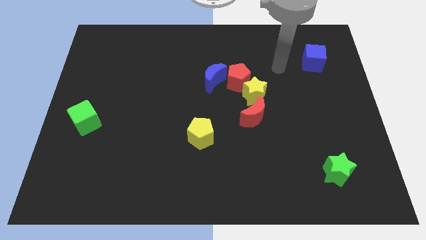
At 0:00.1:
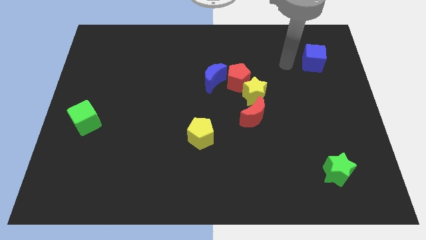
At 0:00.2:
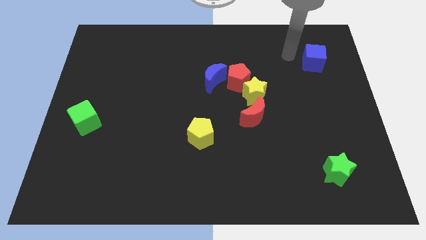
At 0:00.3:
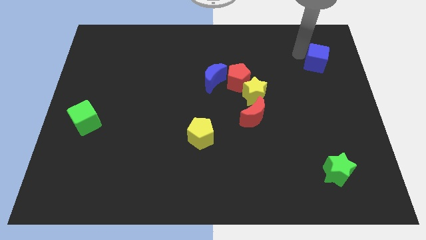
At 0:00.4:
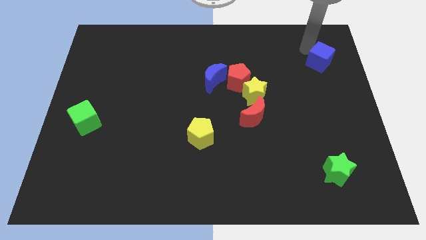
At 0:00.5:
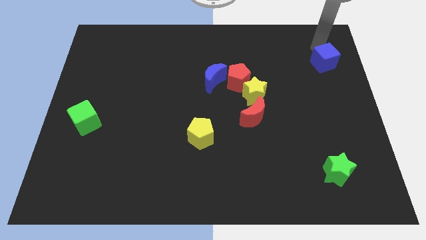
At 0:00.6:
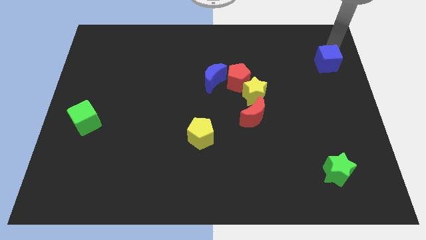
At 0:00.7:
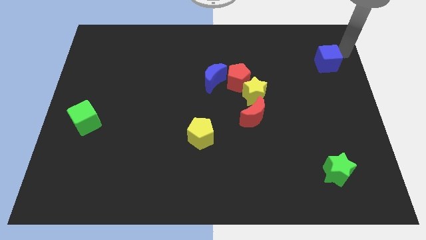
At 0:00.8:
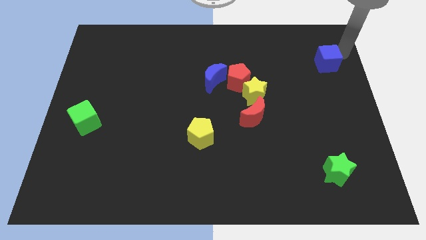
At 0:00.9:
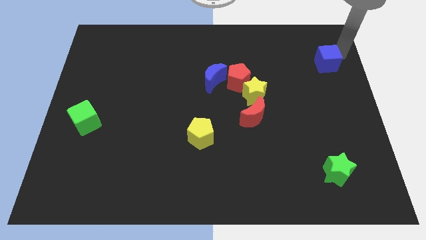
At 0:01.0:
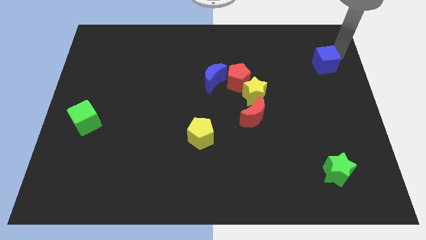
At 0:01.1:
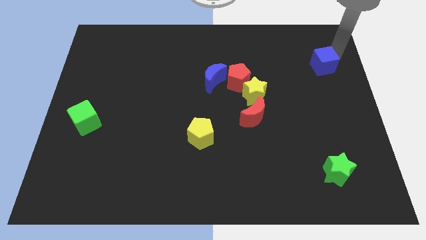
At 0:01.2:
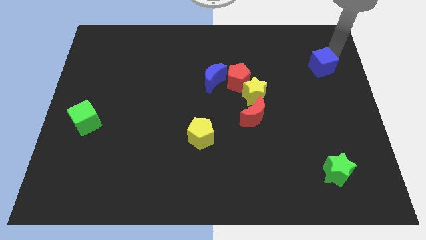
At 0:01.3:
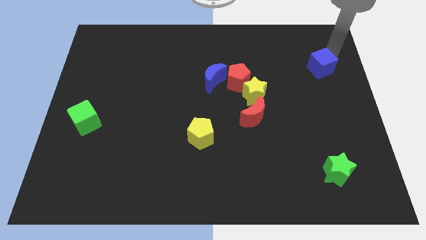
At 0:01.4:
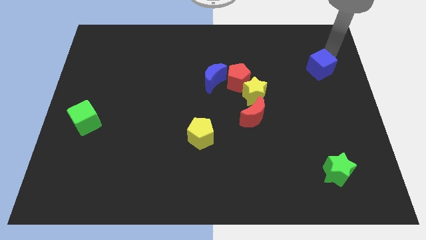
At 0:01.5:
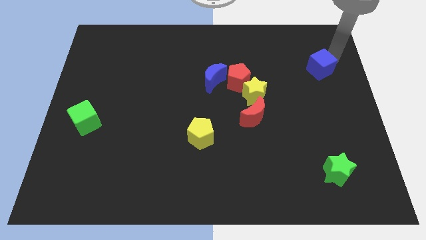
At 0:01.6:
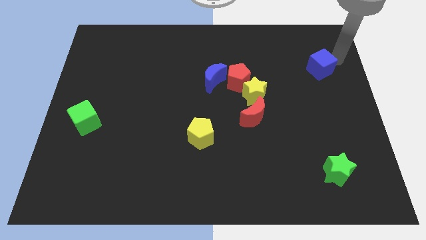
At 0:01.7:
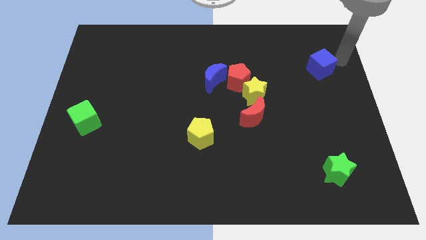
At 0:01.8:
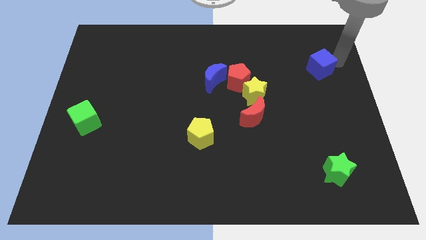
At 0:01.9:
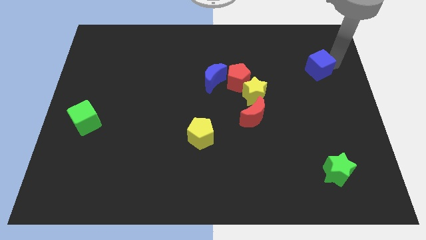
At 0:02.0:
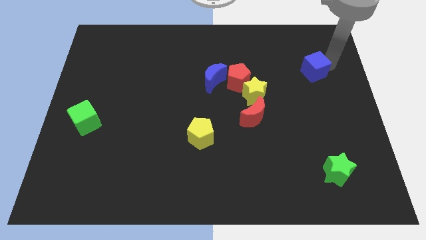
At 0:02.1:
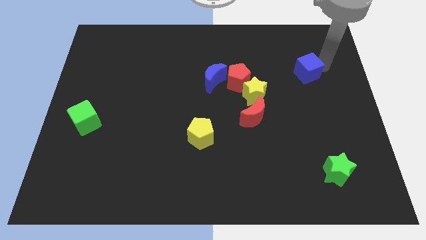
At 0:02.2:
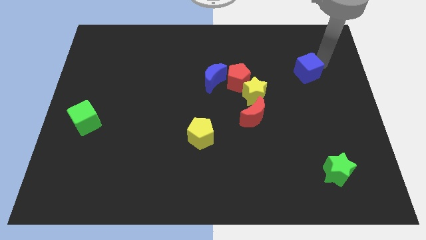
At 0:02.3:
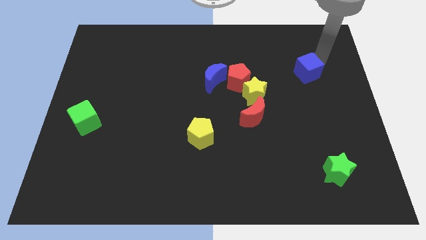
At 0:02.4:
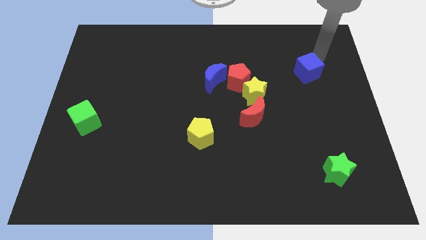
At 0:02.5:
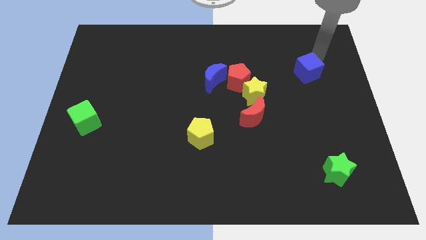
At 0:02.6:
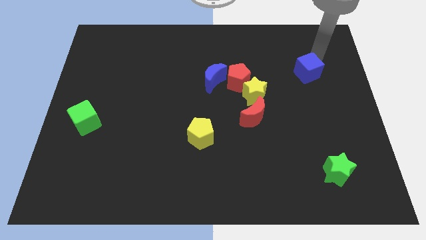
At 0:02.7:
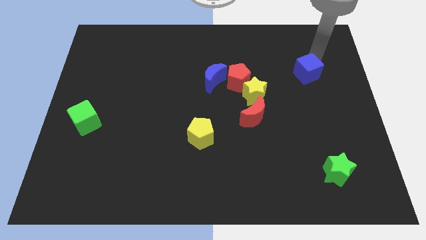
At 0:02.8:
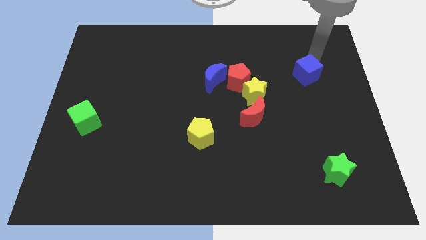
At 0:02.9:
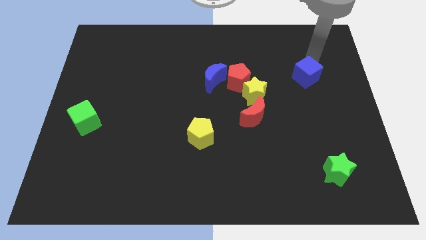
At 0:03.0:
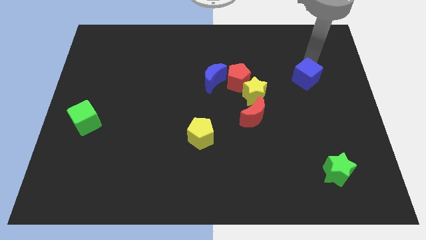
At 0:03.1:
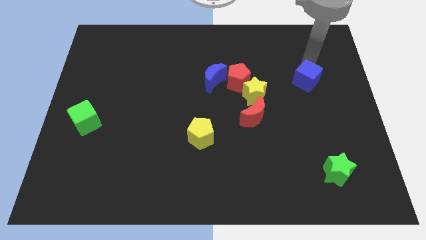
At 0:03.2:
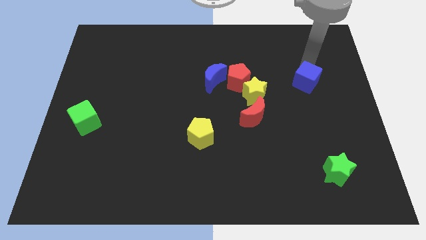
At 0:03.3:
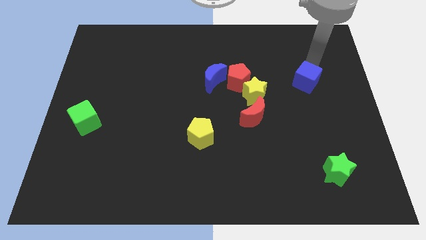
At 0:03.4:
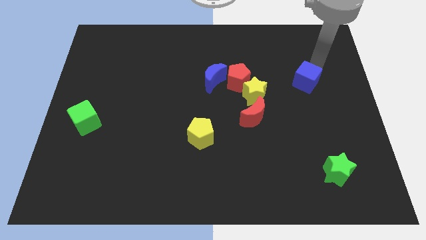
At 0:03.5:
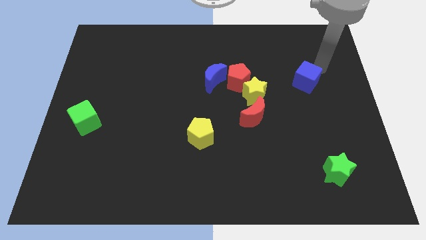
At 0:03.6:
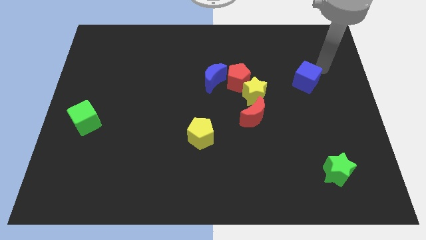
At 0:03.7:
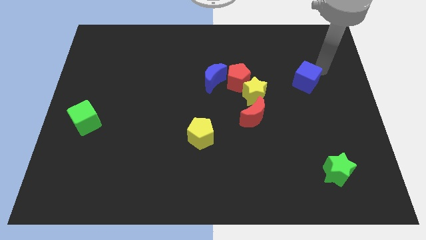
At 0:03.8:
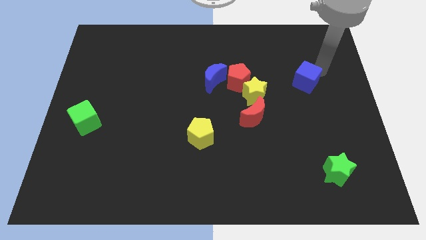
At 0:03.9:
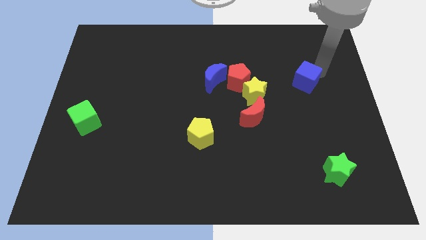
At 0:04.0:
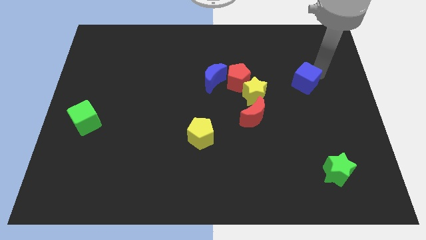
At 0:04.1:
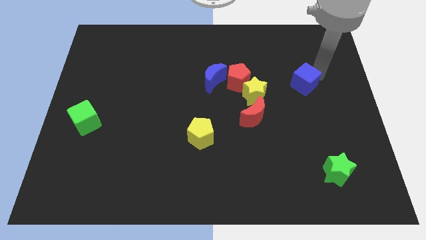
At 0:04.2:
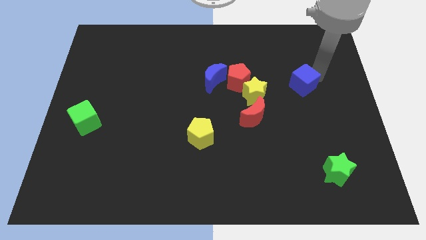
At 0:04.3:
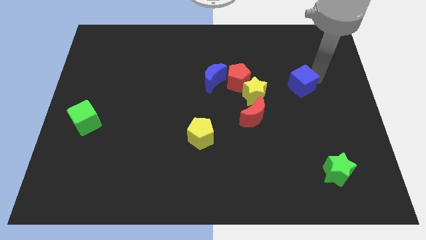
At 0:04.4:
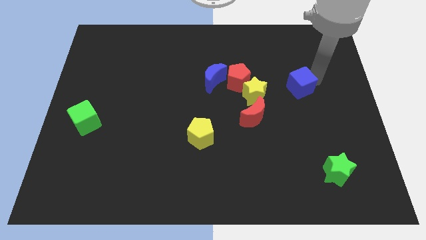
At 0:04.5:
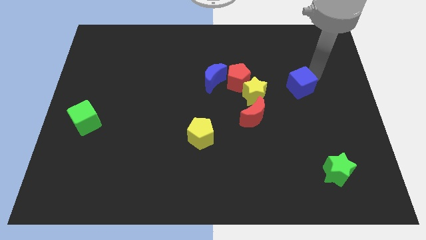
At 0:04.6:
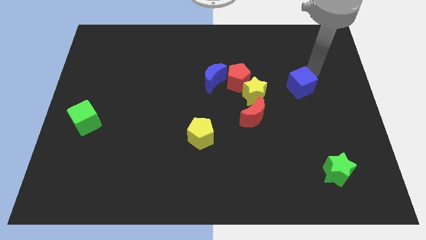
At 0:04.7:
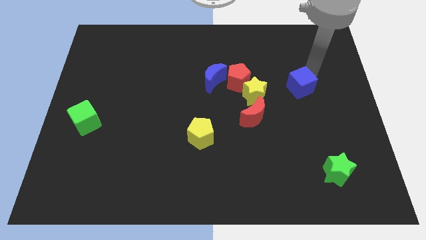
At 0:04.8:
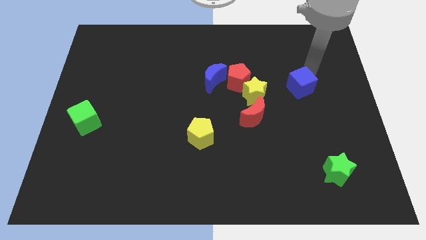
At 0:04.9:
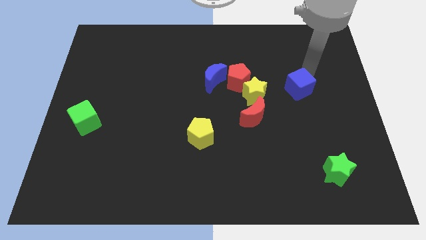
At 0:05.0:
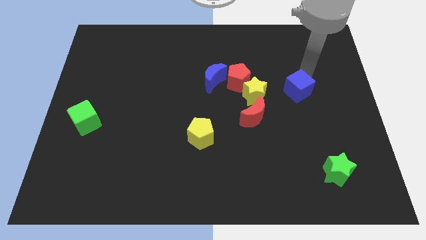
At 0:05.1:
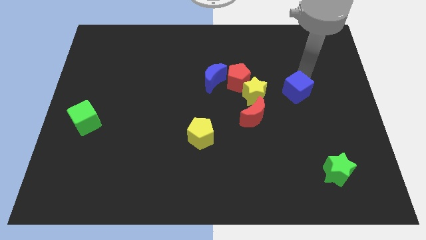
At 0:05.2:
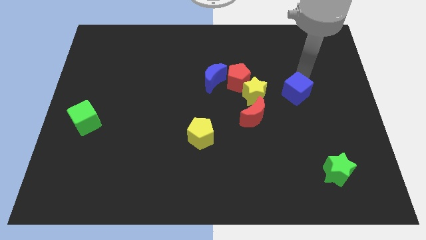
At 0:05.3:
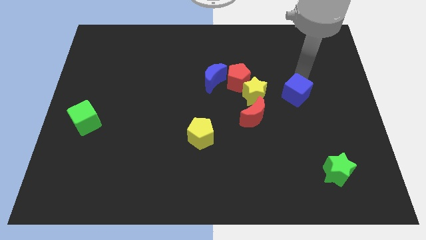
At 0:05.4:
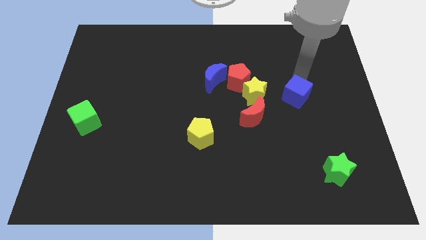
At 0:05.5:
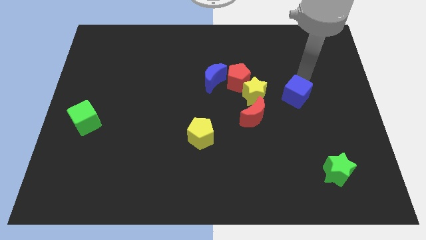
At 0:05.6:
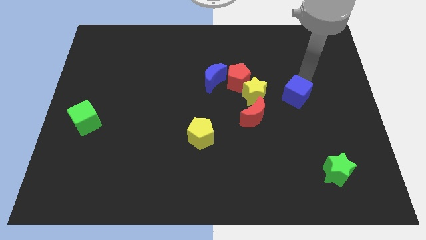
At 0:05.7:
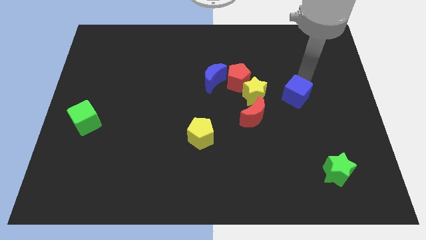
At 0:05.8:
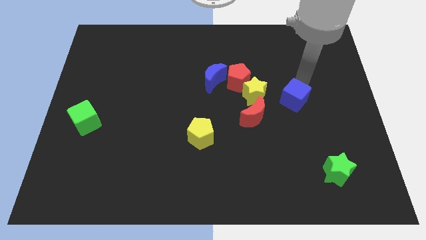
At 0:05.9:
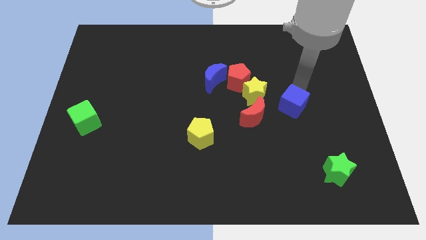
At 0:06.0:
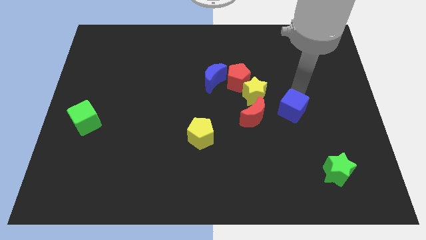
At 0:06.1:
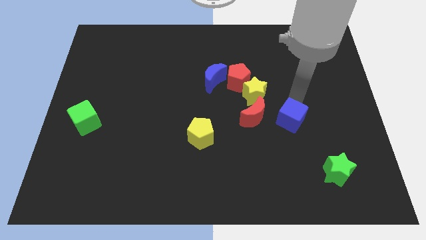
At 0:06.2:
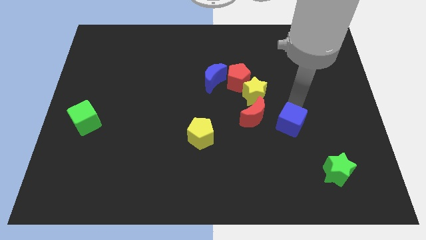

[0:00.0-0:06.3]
slide the blue cube diagonally down and to the right of the red moon
